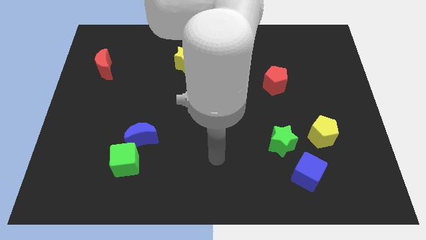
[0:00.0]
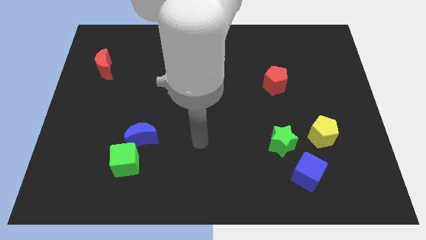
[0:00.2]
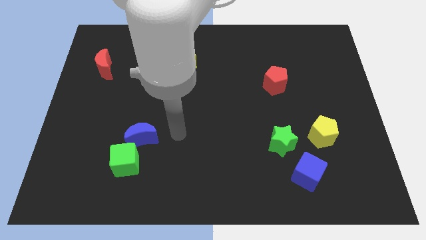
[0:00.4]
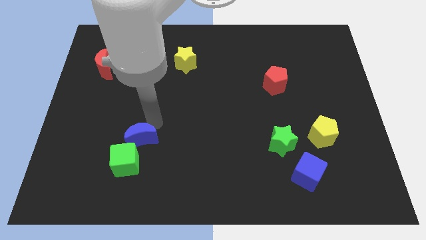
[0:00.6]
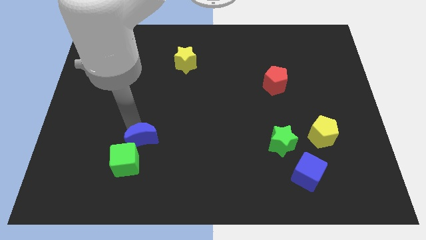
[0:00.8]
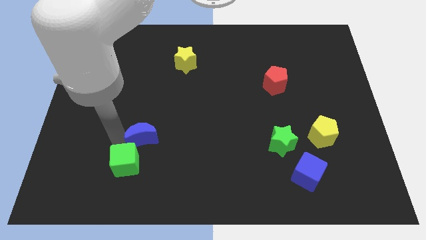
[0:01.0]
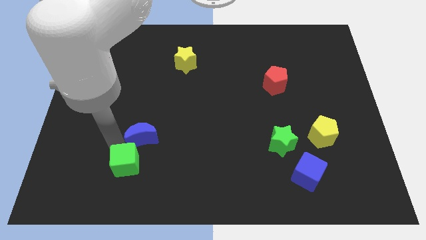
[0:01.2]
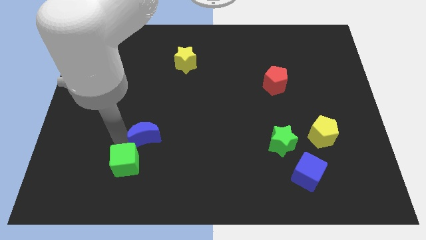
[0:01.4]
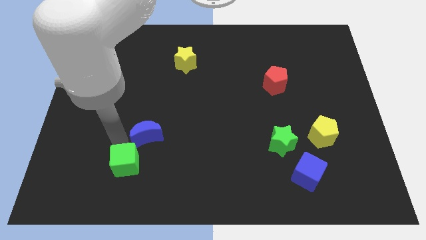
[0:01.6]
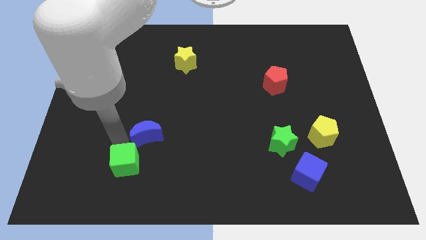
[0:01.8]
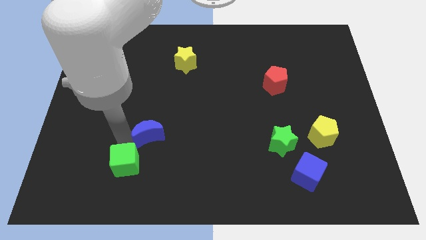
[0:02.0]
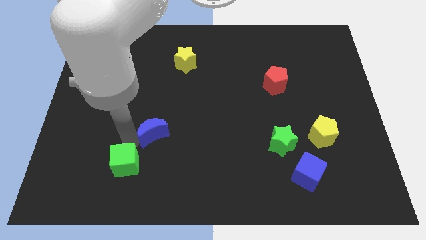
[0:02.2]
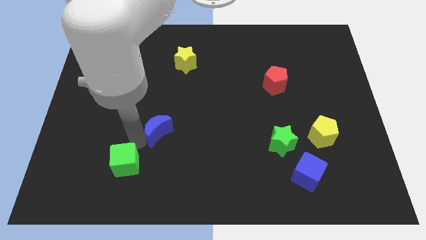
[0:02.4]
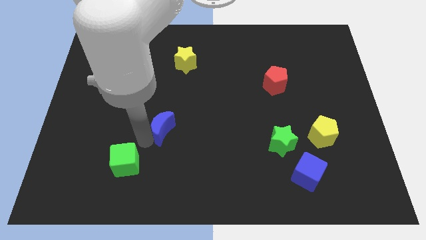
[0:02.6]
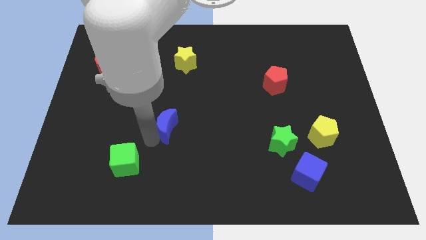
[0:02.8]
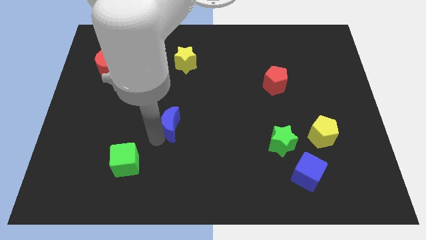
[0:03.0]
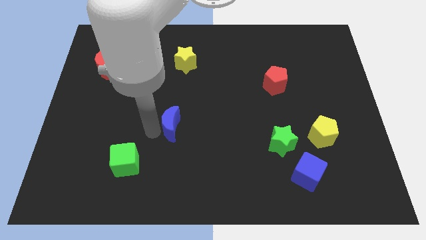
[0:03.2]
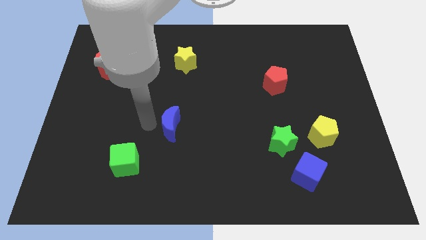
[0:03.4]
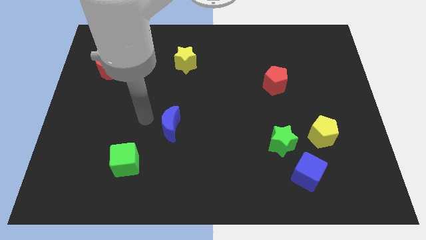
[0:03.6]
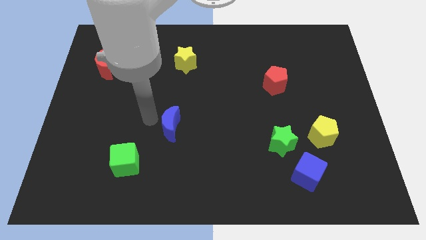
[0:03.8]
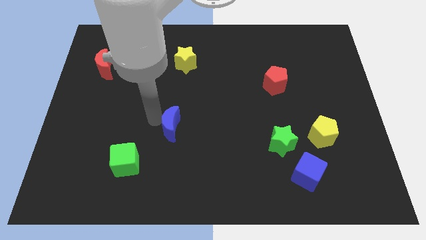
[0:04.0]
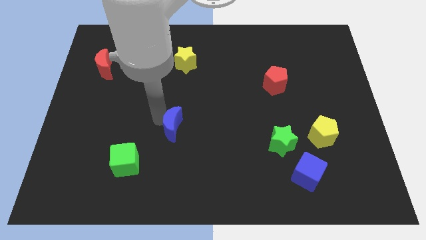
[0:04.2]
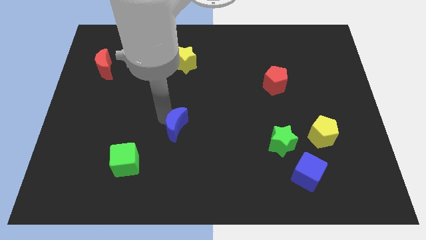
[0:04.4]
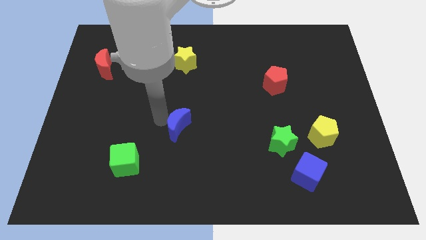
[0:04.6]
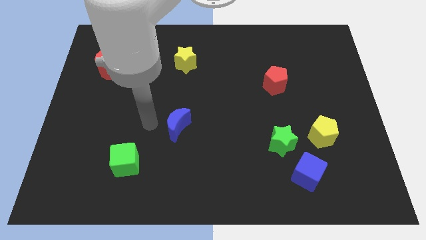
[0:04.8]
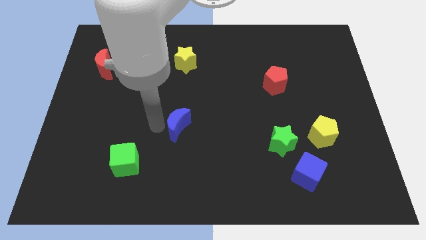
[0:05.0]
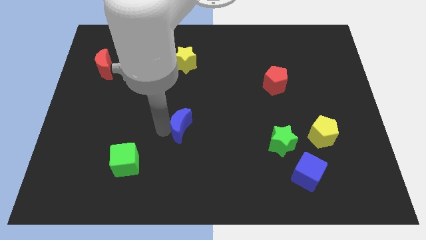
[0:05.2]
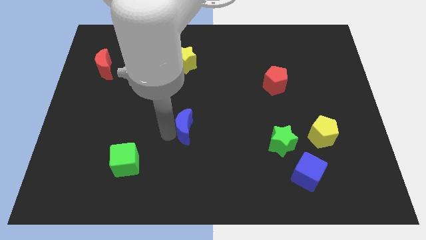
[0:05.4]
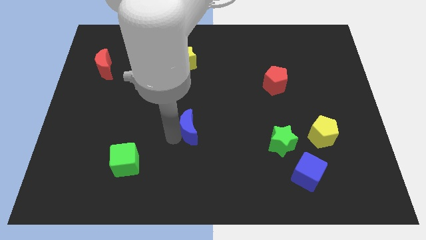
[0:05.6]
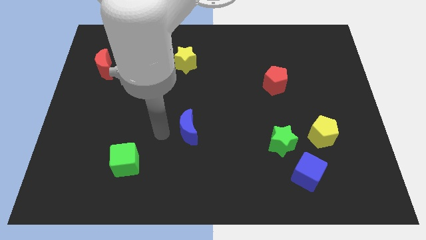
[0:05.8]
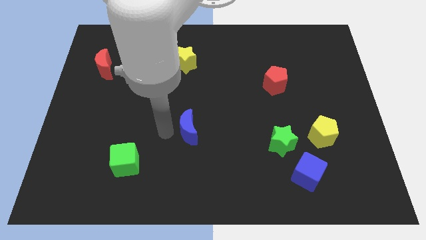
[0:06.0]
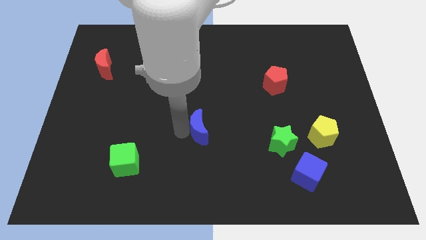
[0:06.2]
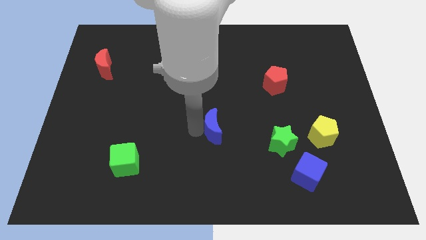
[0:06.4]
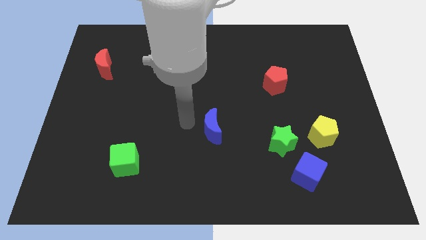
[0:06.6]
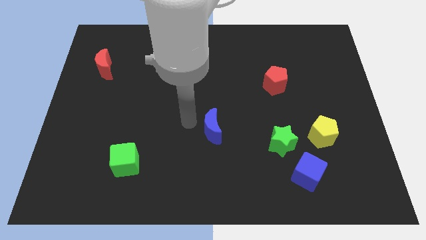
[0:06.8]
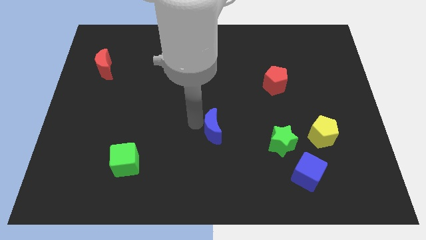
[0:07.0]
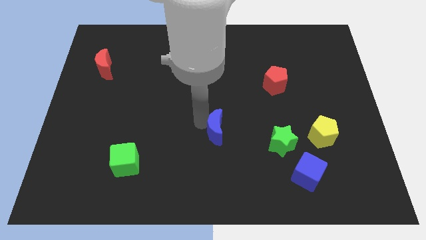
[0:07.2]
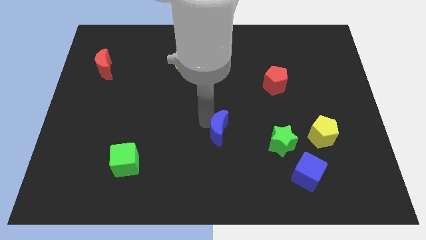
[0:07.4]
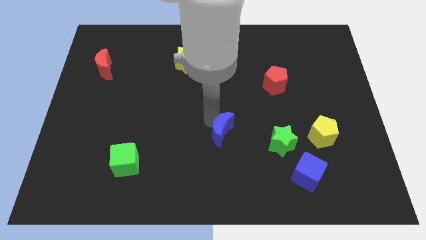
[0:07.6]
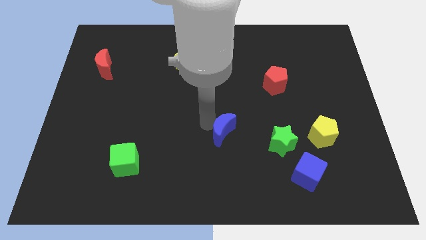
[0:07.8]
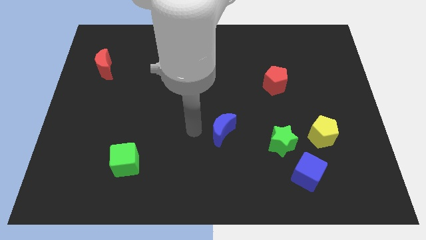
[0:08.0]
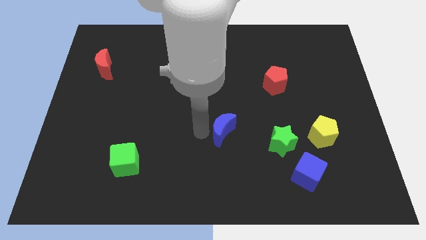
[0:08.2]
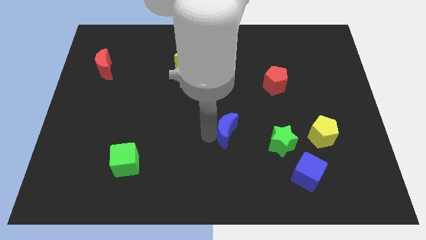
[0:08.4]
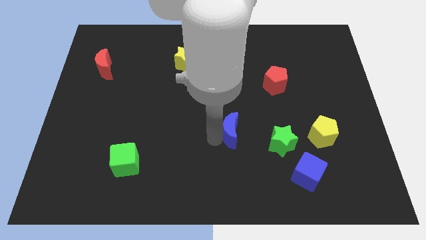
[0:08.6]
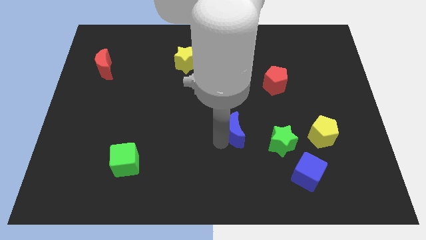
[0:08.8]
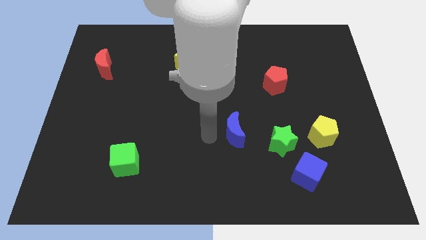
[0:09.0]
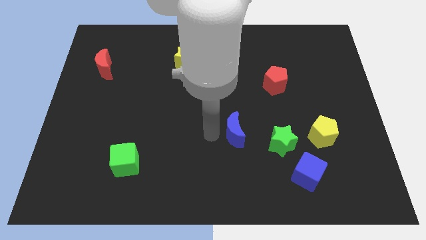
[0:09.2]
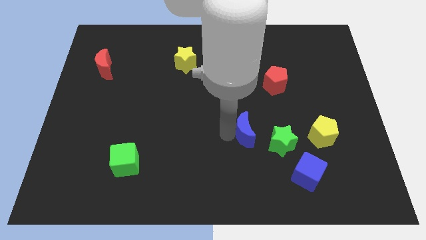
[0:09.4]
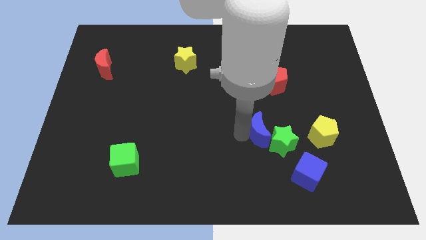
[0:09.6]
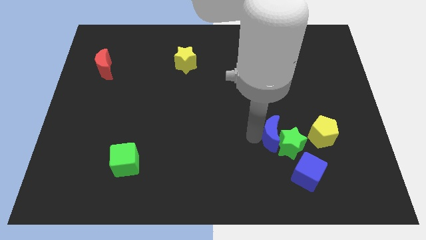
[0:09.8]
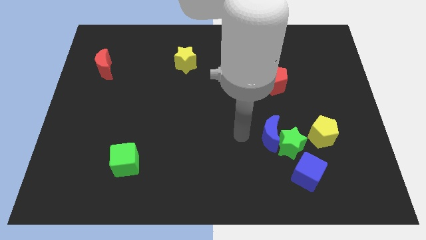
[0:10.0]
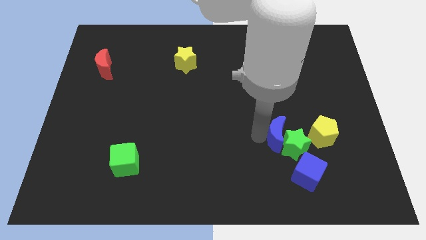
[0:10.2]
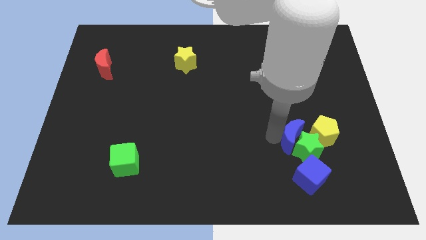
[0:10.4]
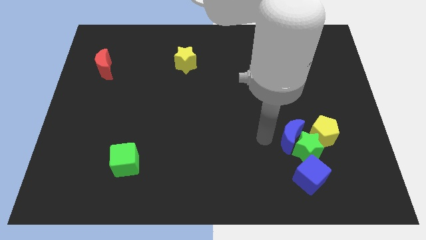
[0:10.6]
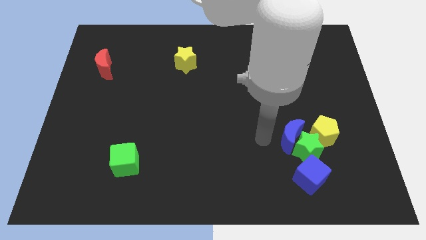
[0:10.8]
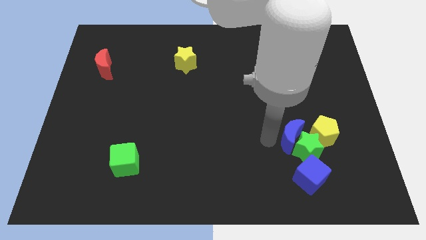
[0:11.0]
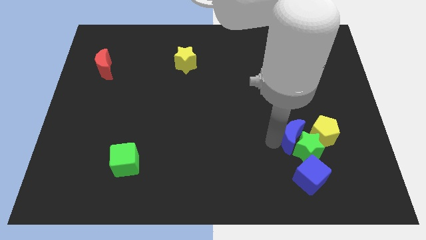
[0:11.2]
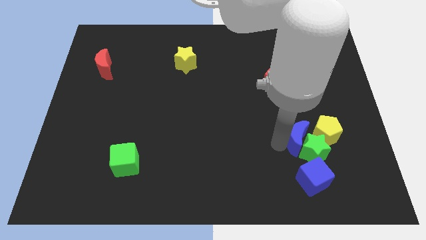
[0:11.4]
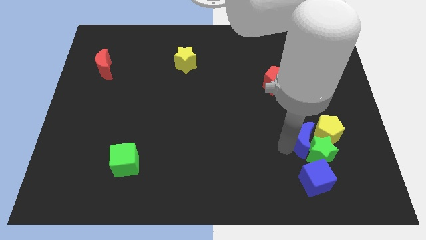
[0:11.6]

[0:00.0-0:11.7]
push the blue moon towards the yellow pentagon
